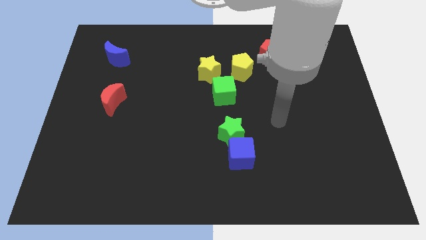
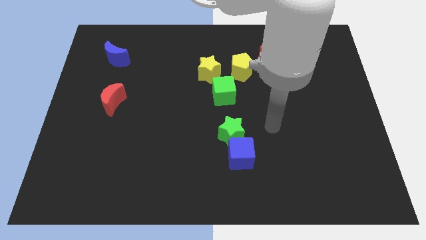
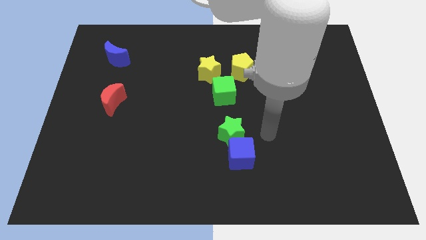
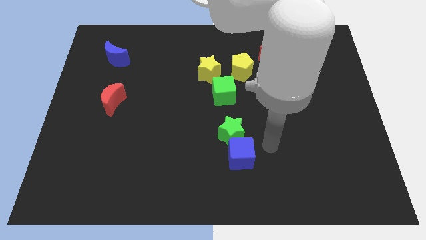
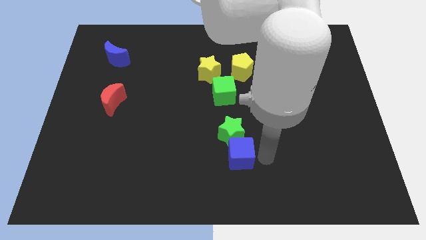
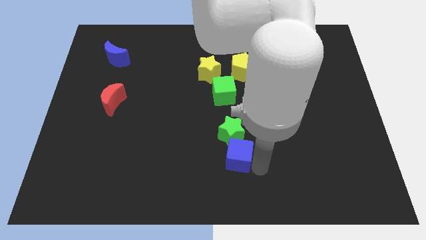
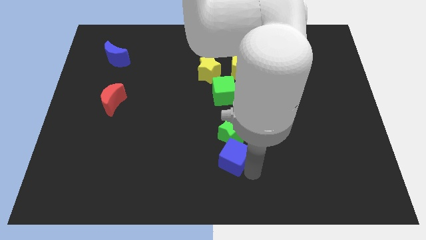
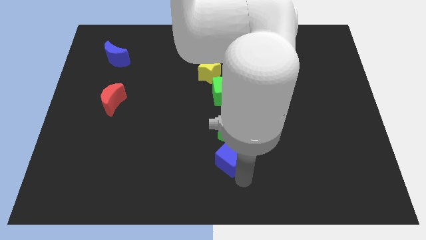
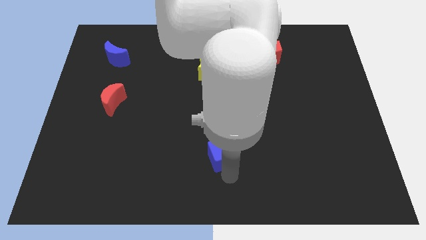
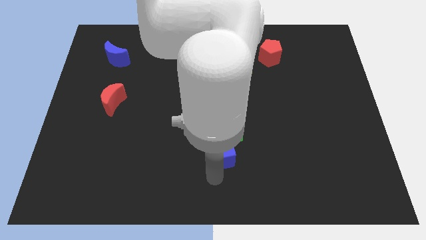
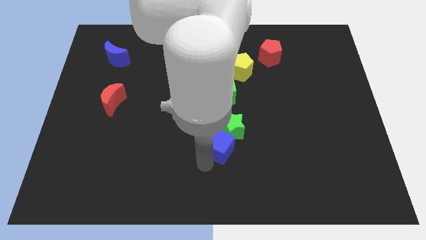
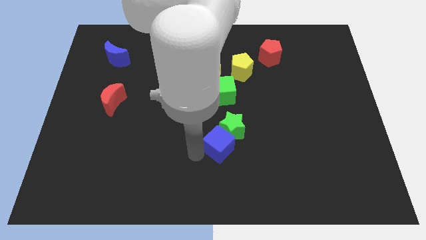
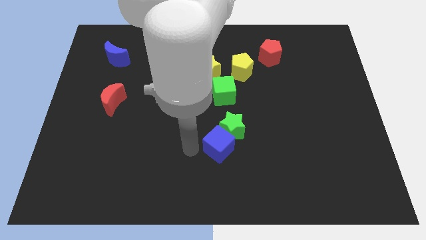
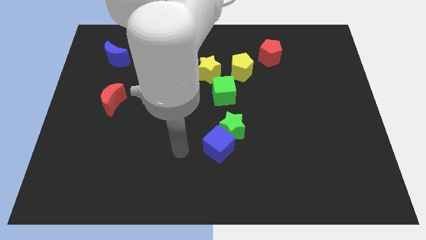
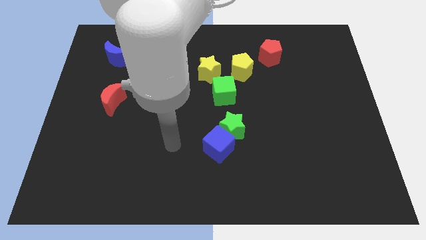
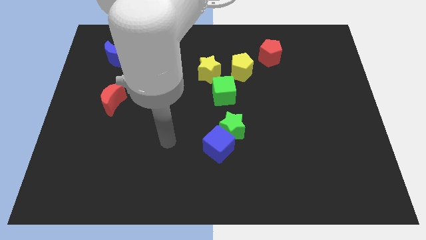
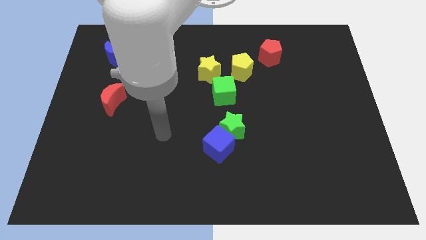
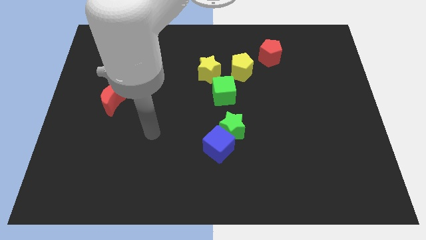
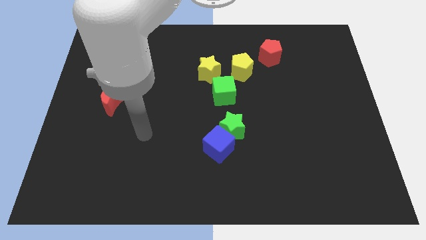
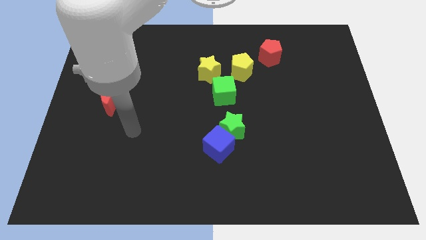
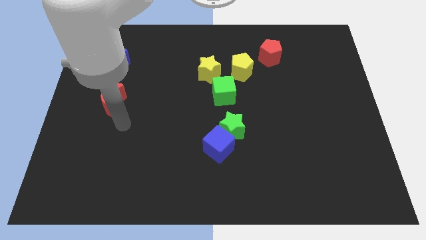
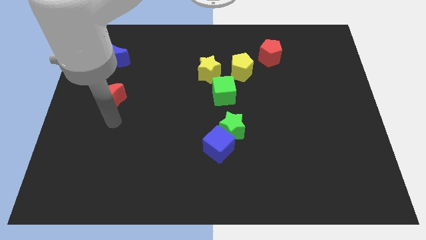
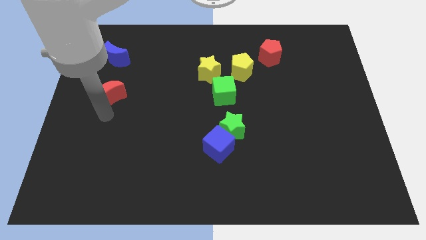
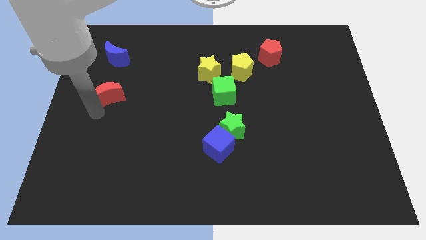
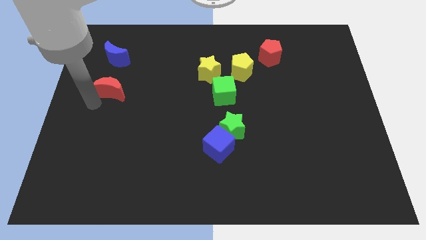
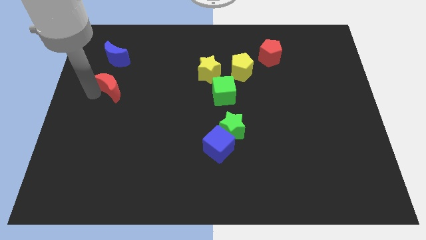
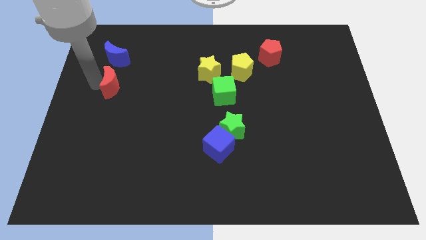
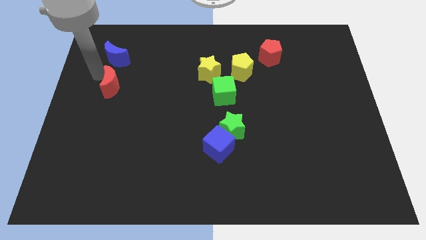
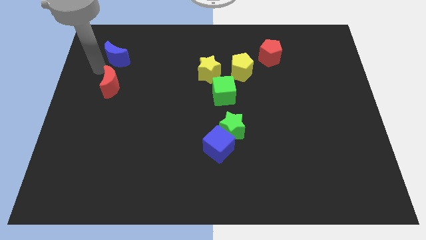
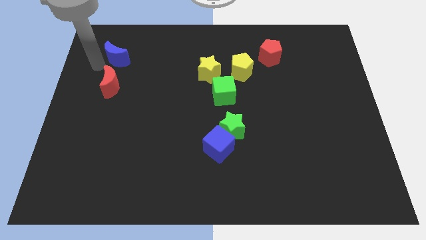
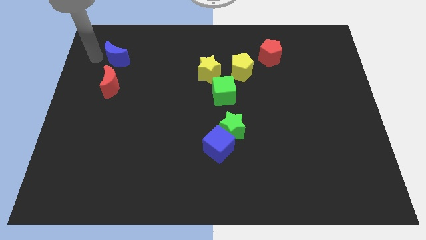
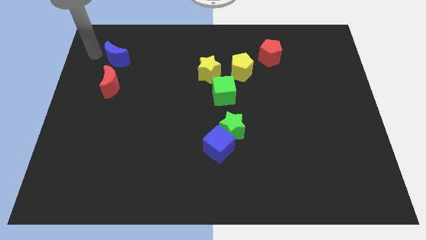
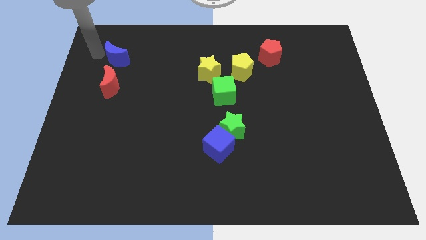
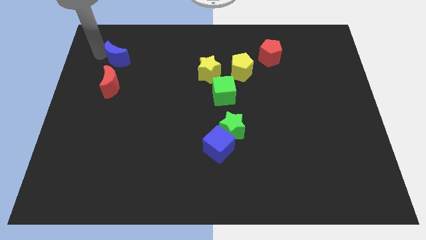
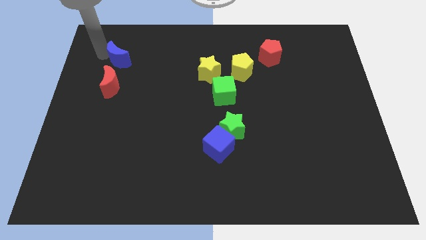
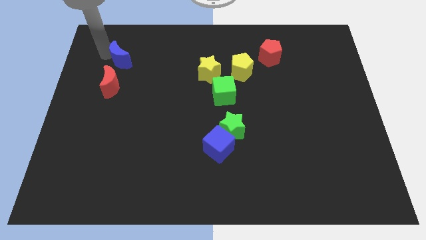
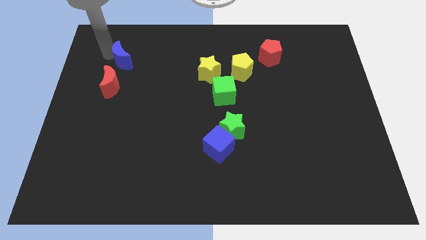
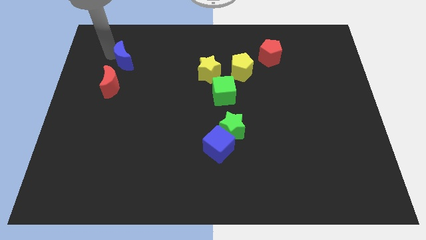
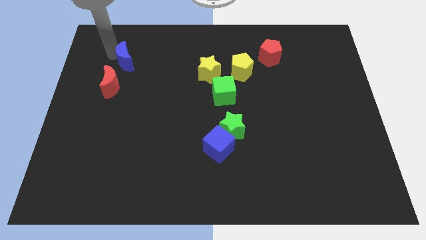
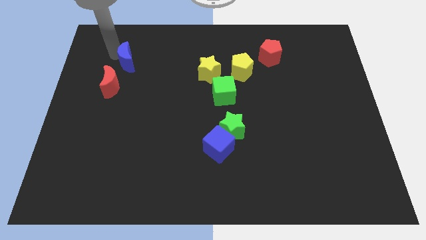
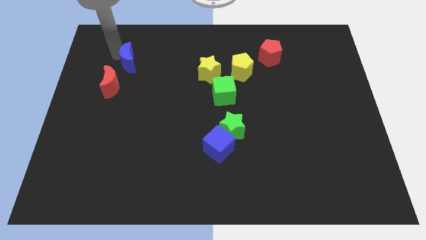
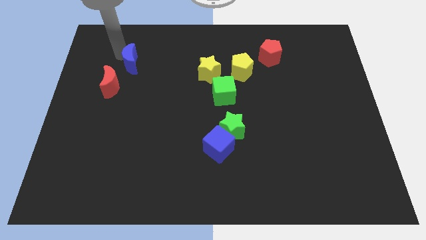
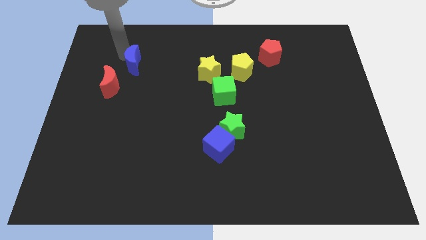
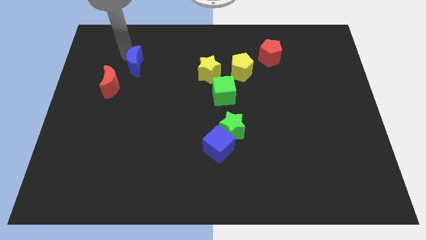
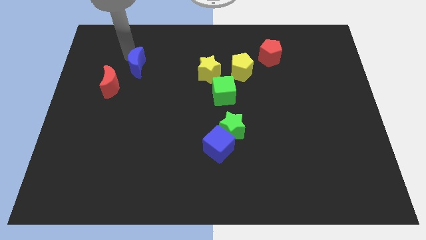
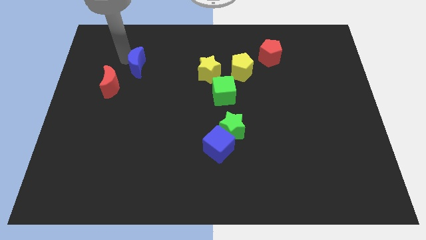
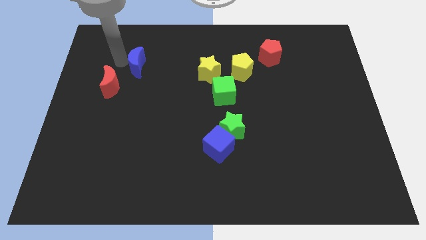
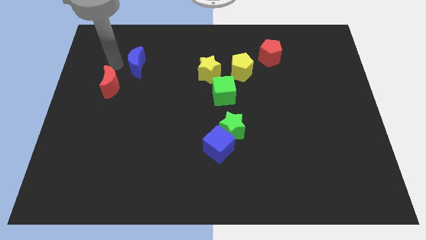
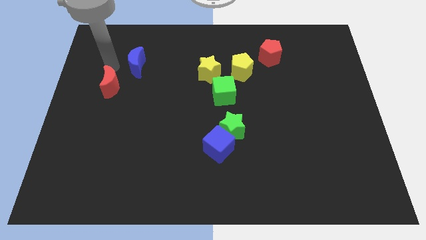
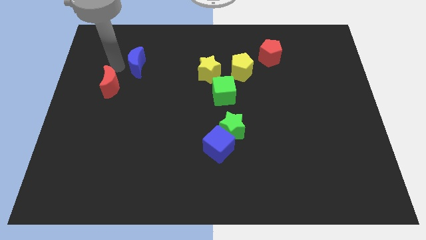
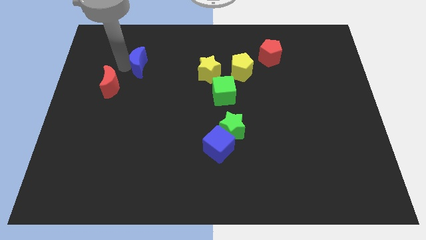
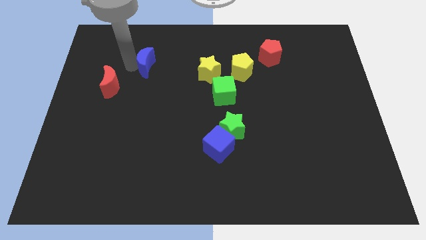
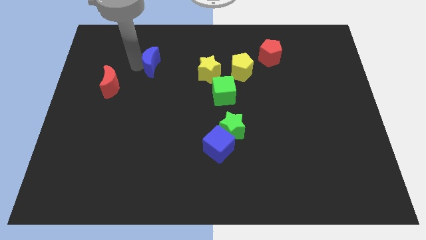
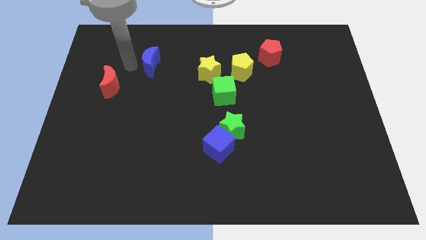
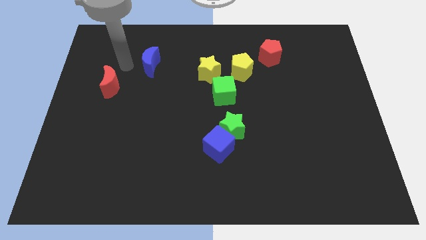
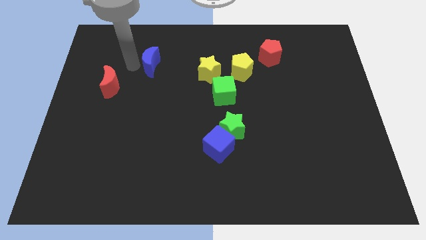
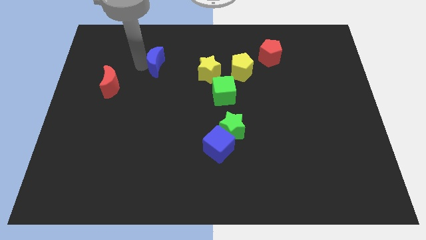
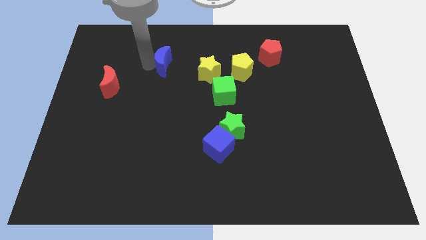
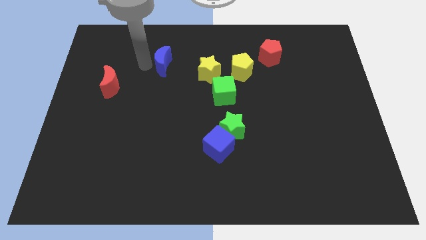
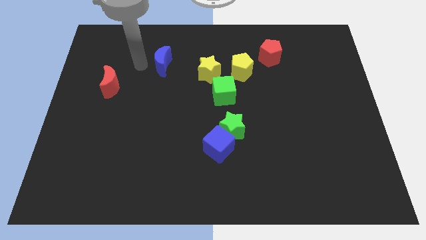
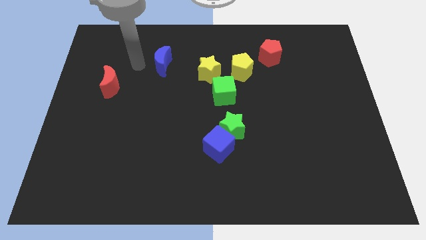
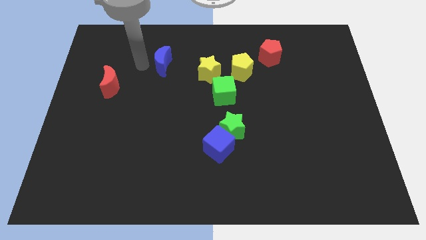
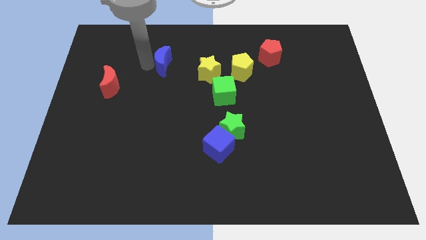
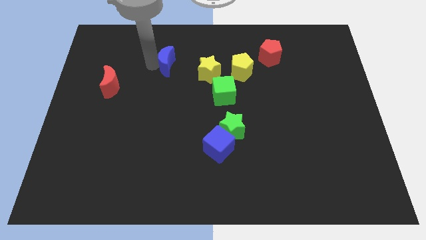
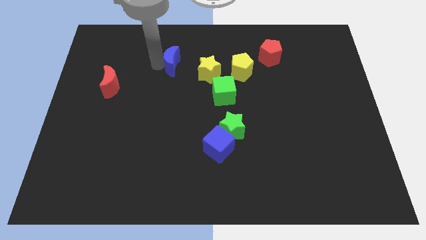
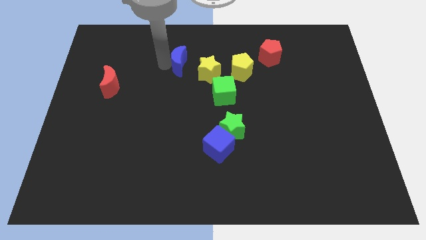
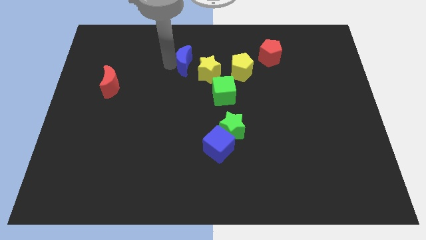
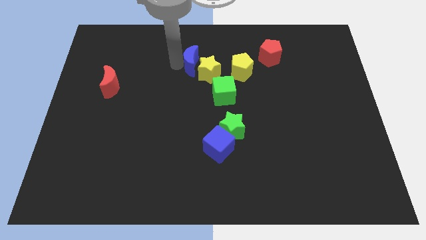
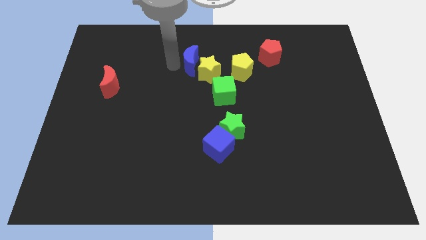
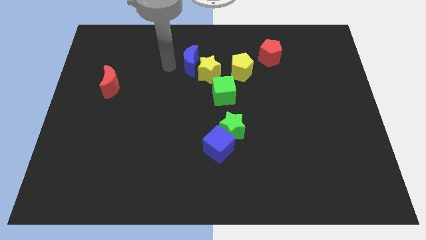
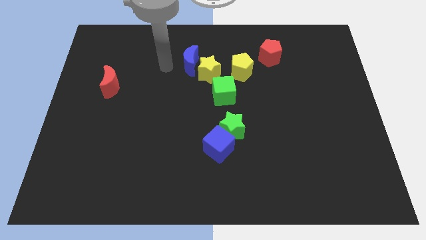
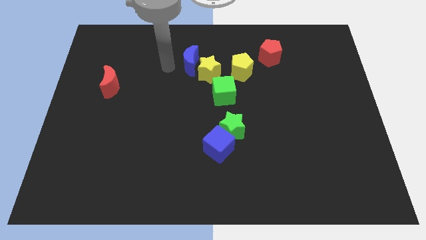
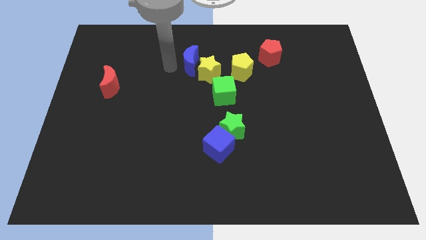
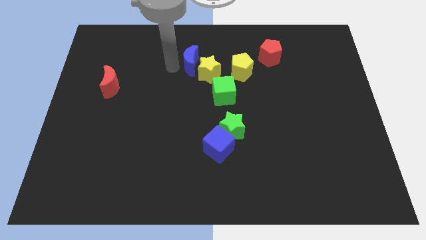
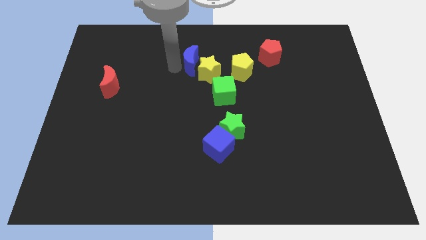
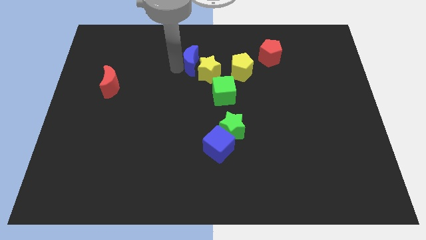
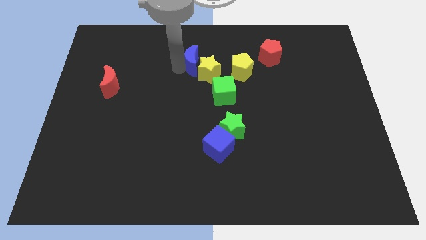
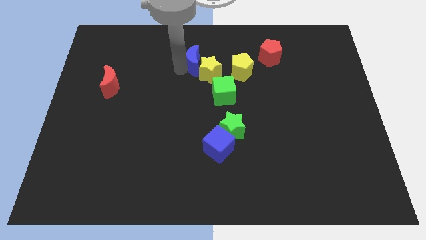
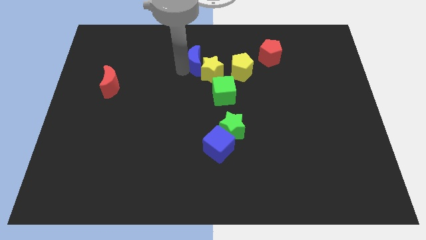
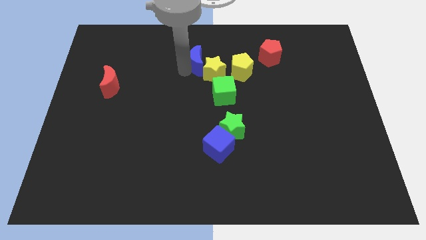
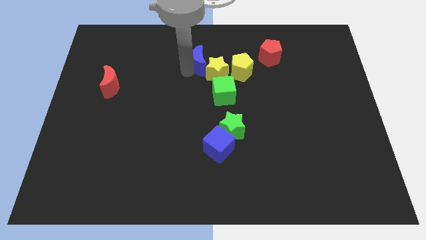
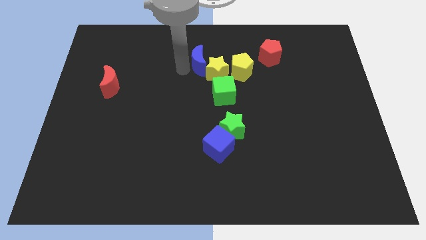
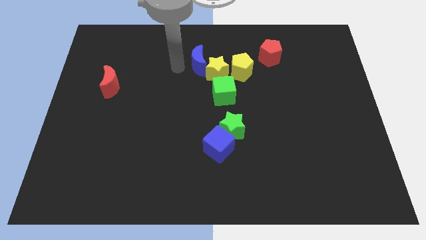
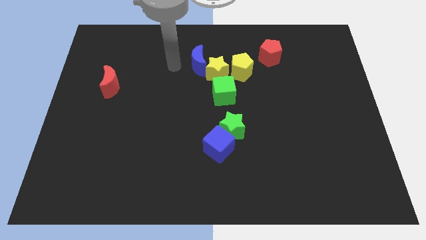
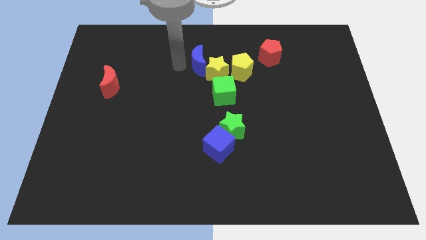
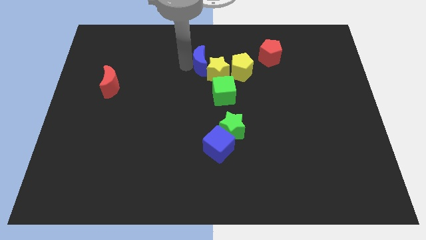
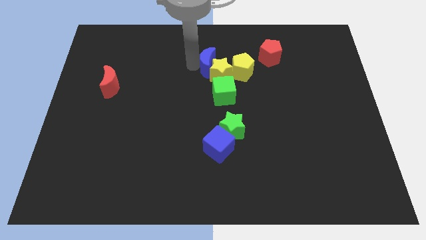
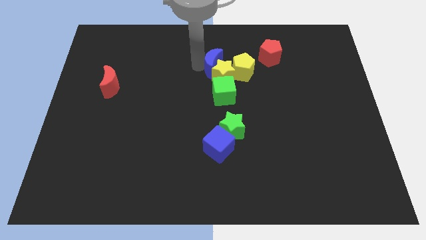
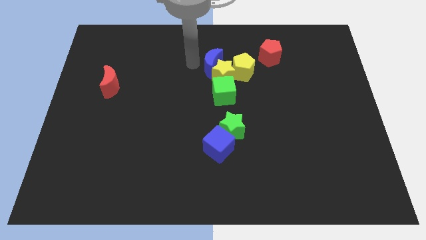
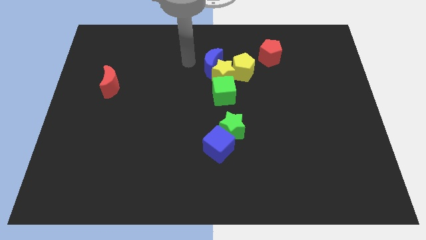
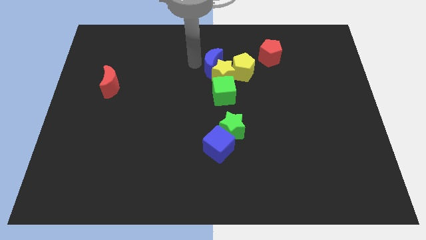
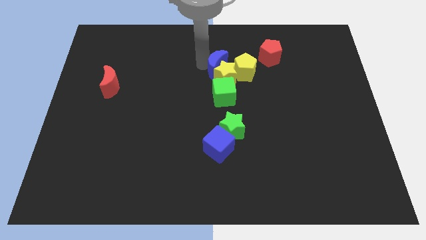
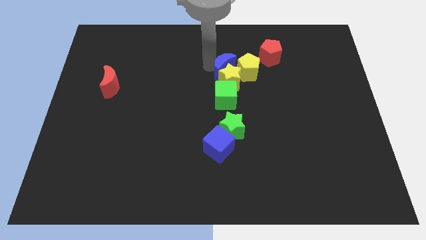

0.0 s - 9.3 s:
slide the blue moon towards the yellow pentagon
